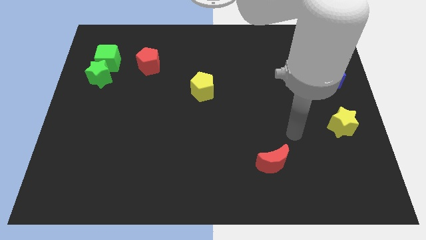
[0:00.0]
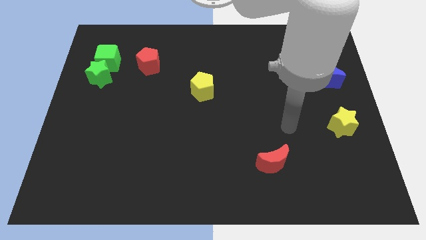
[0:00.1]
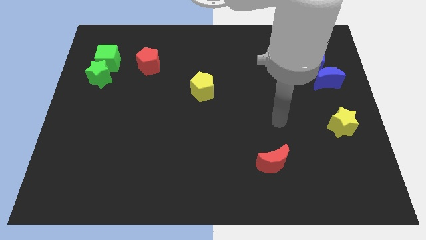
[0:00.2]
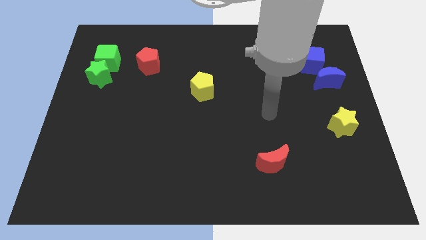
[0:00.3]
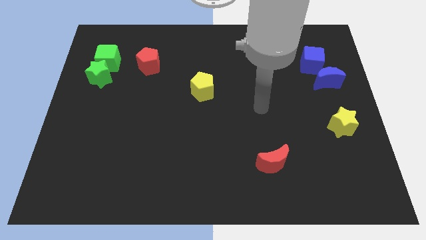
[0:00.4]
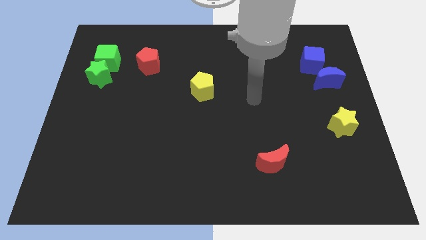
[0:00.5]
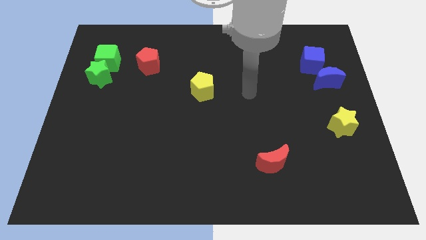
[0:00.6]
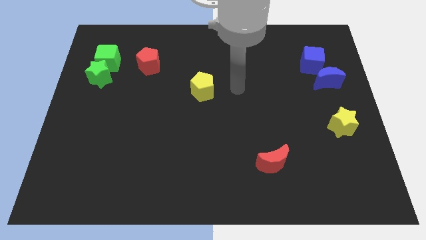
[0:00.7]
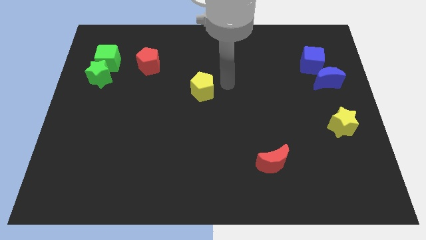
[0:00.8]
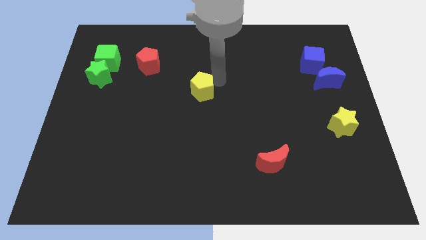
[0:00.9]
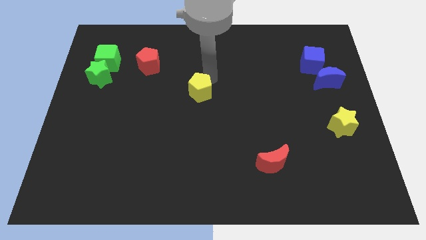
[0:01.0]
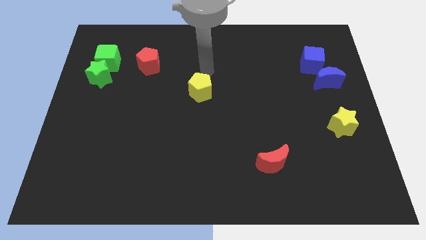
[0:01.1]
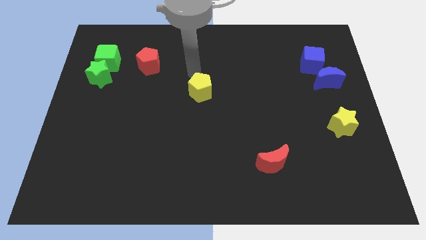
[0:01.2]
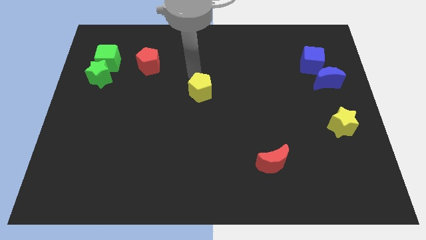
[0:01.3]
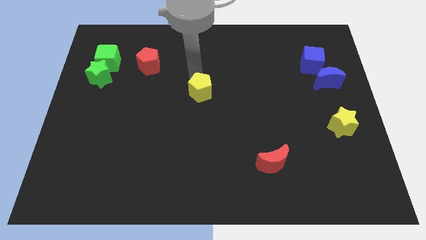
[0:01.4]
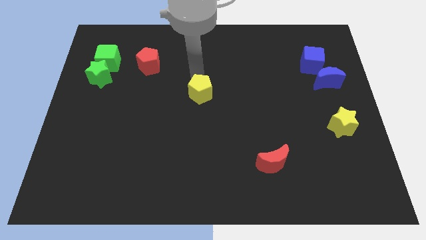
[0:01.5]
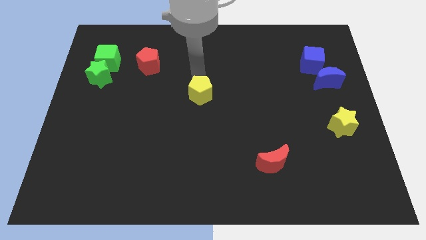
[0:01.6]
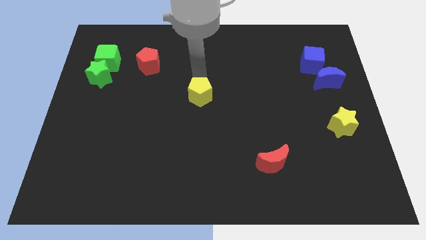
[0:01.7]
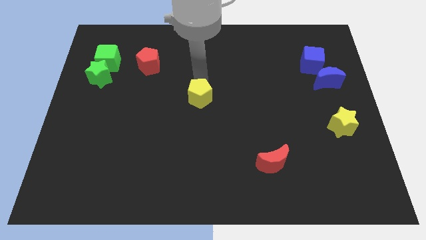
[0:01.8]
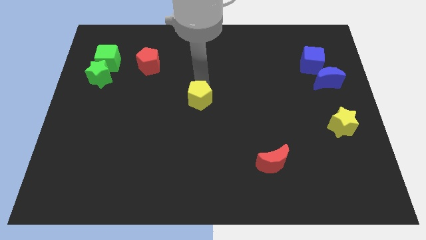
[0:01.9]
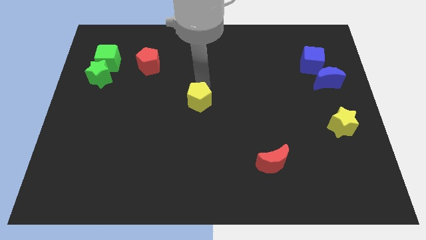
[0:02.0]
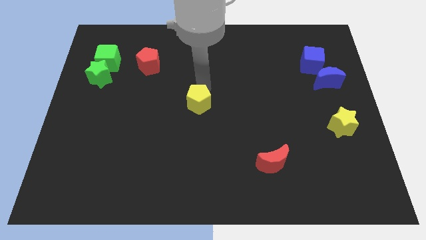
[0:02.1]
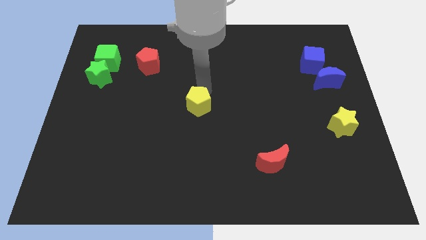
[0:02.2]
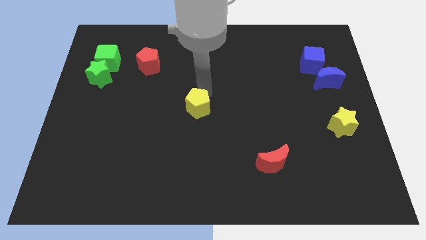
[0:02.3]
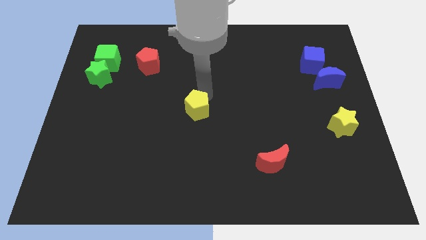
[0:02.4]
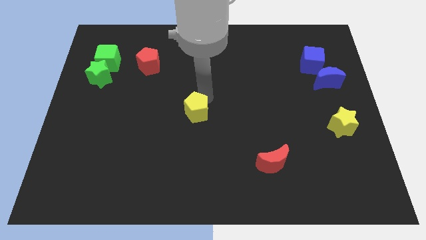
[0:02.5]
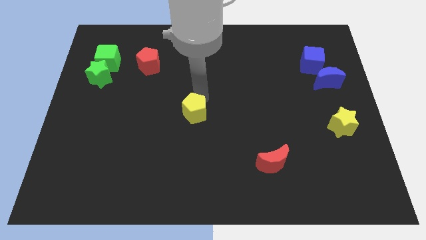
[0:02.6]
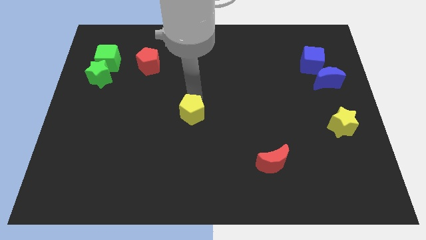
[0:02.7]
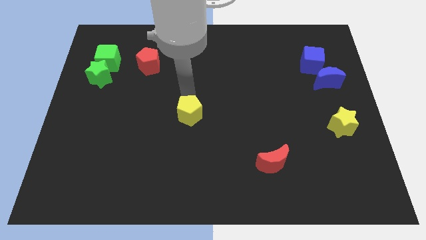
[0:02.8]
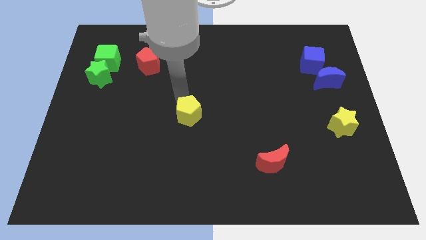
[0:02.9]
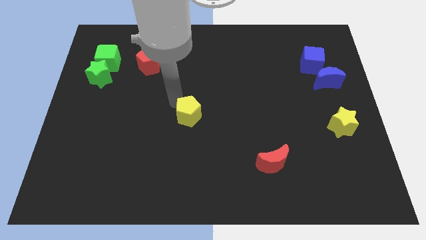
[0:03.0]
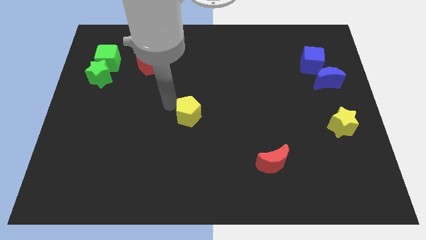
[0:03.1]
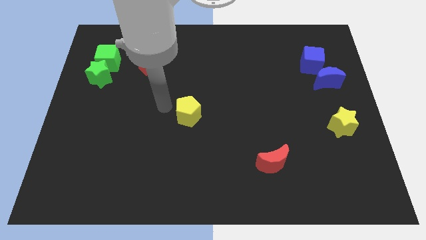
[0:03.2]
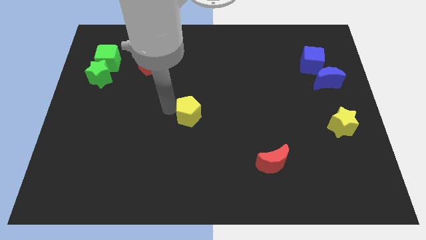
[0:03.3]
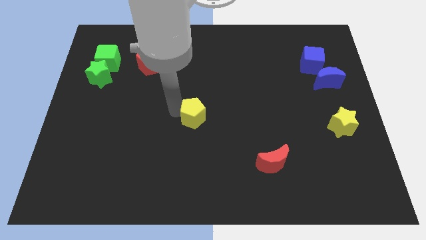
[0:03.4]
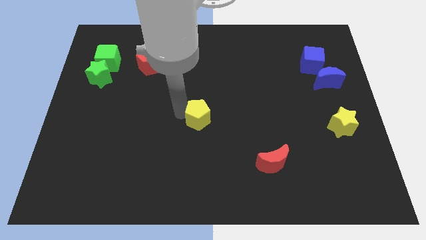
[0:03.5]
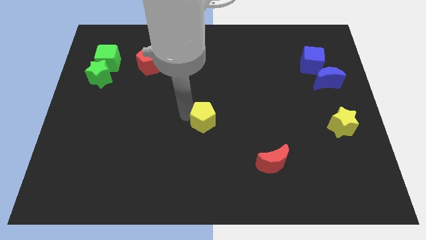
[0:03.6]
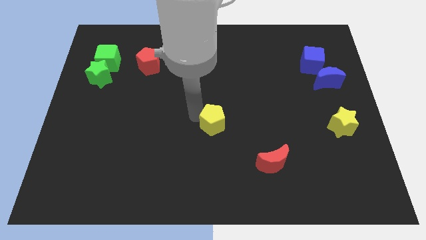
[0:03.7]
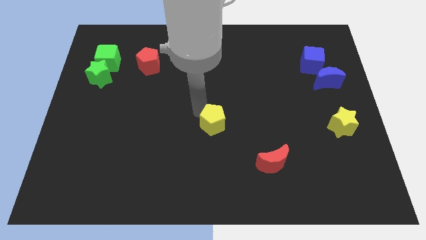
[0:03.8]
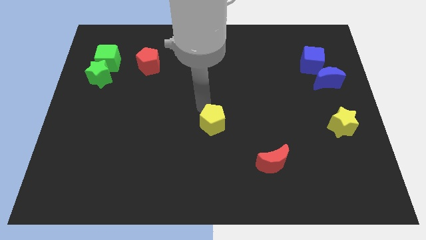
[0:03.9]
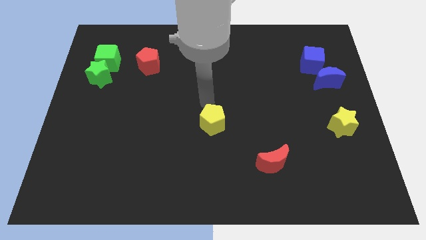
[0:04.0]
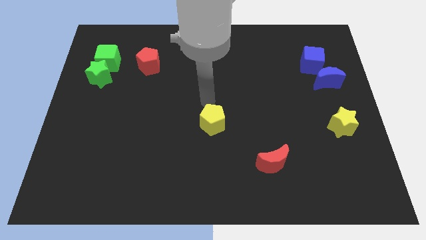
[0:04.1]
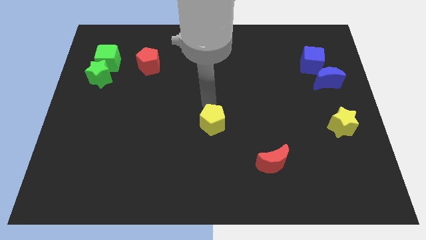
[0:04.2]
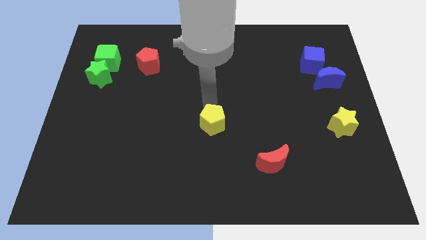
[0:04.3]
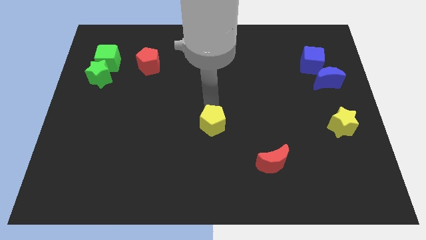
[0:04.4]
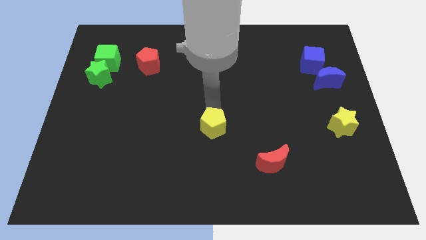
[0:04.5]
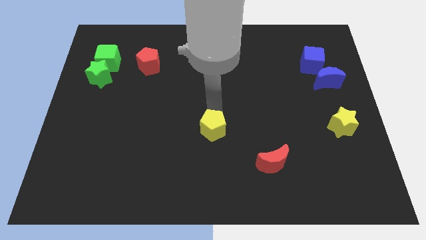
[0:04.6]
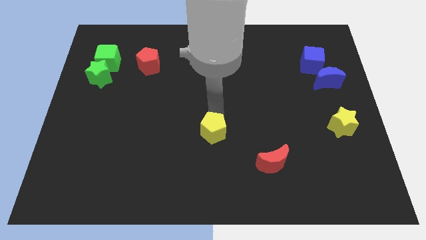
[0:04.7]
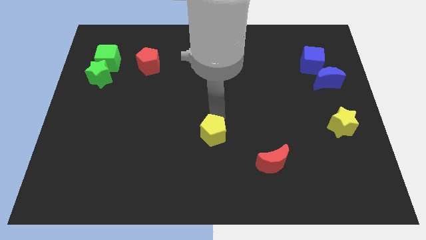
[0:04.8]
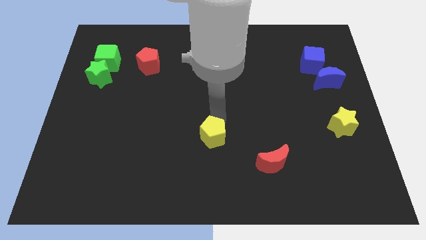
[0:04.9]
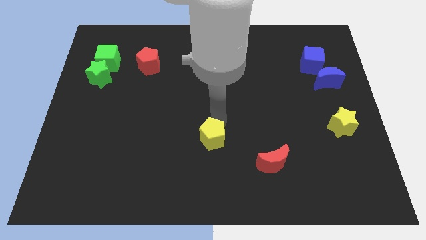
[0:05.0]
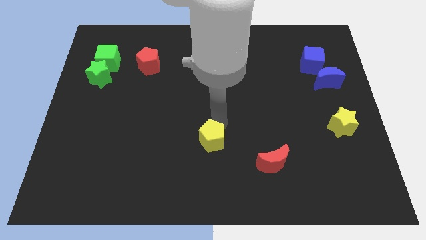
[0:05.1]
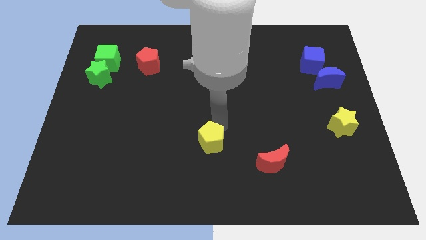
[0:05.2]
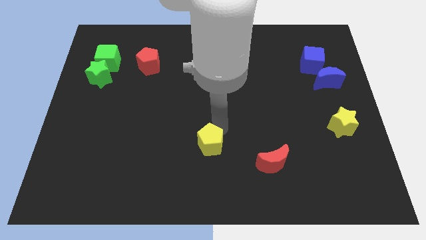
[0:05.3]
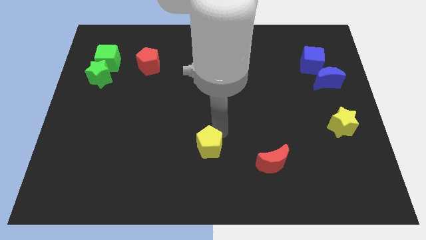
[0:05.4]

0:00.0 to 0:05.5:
slide the yellow pentagon left of the red moon
